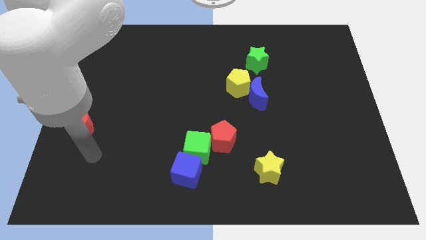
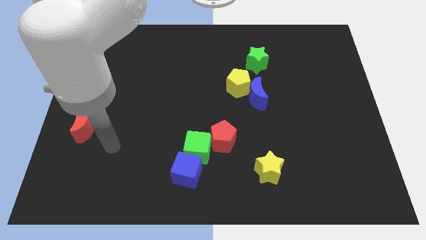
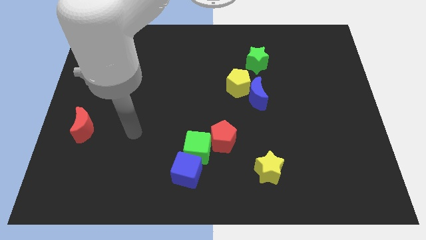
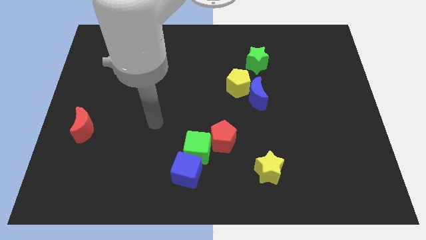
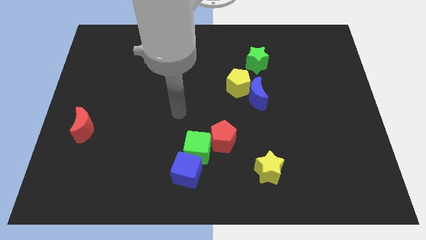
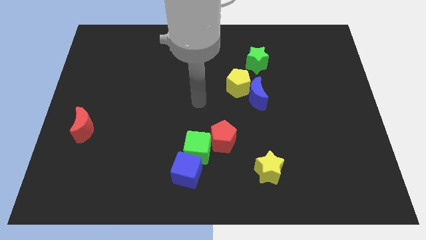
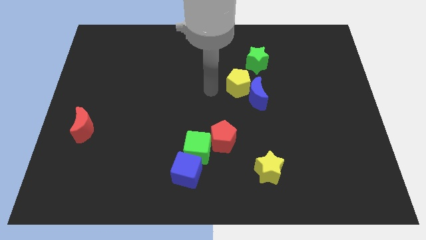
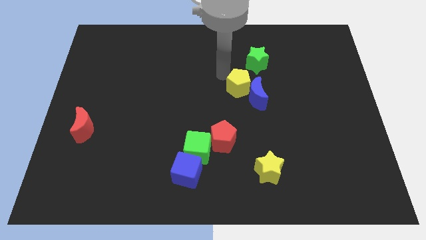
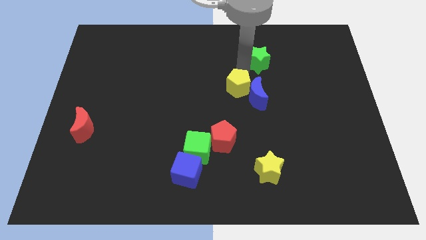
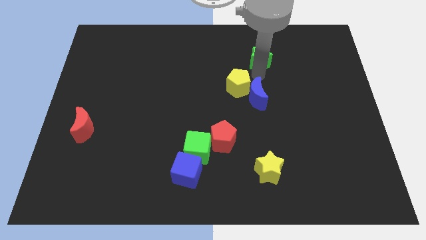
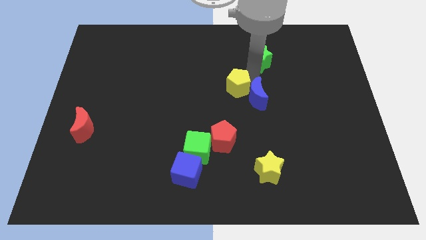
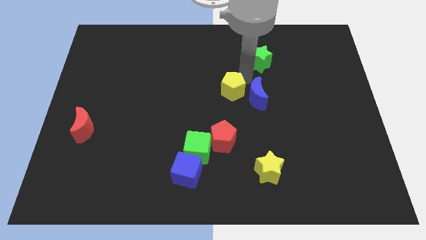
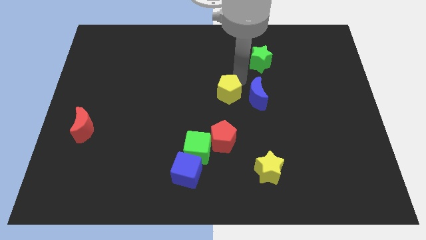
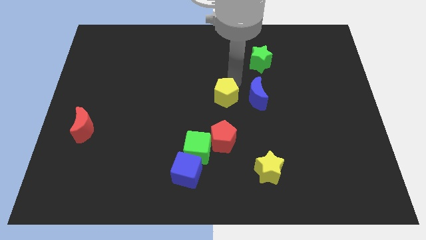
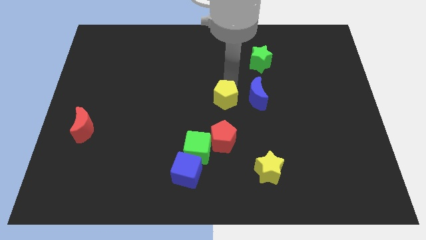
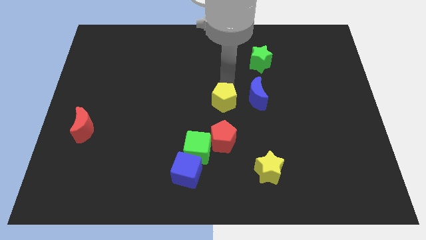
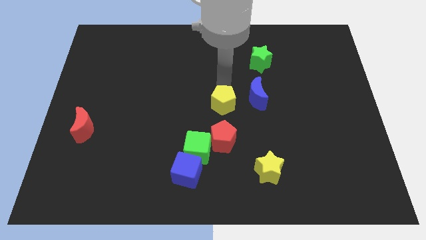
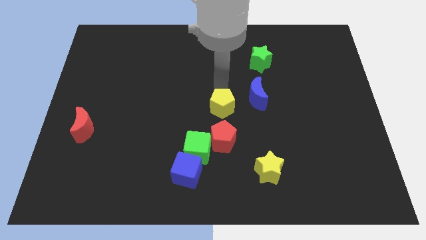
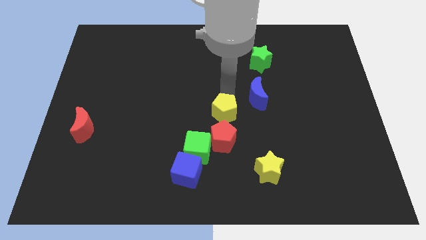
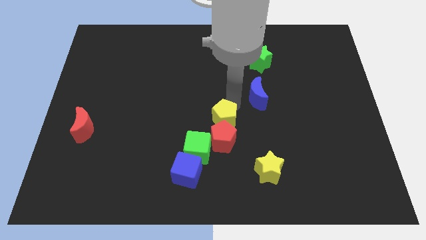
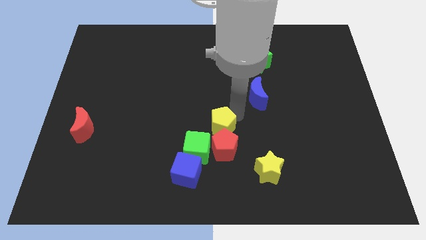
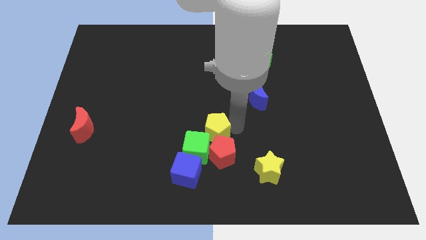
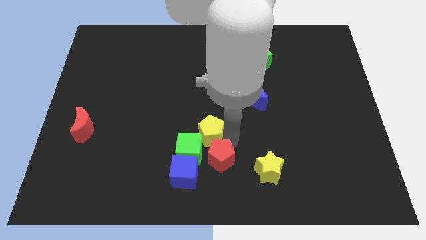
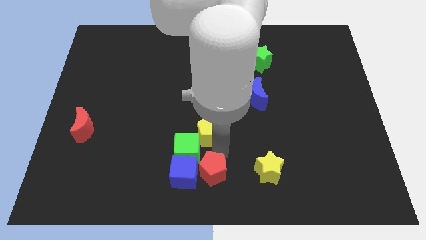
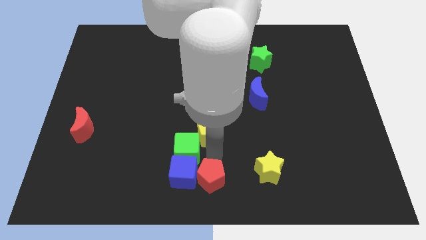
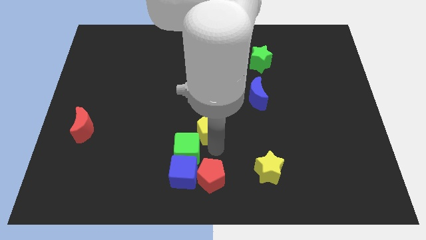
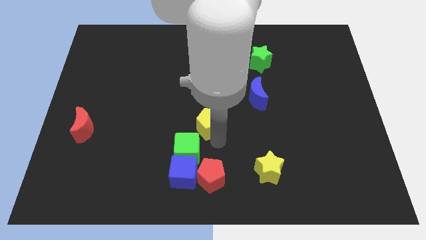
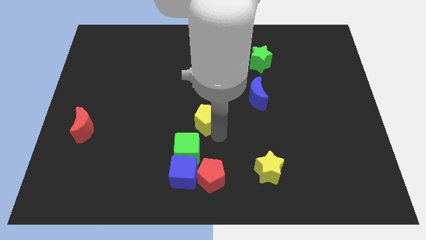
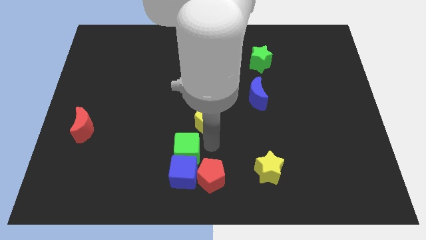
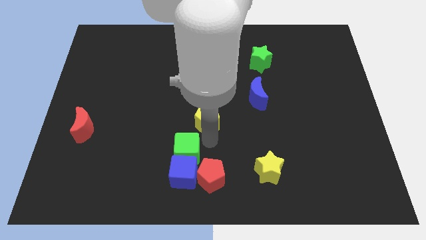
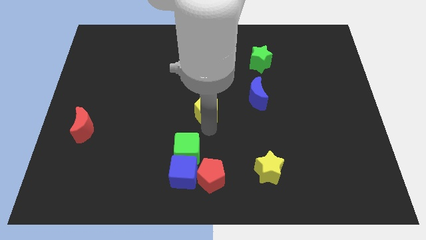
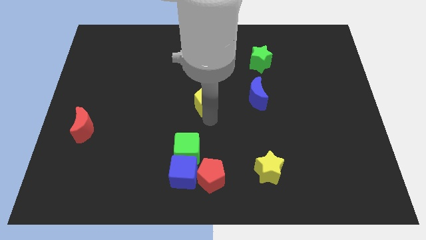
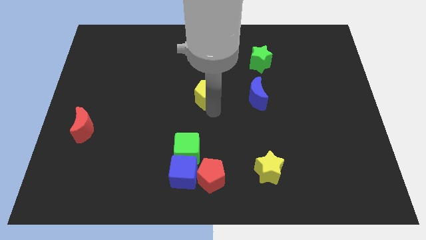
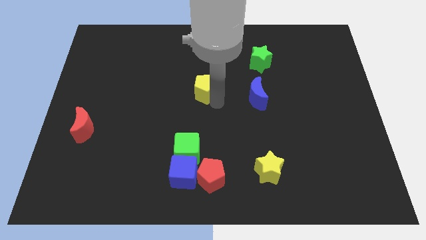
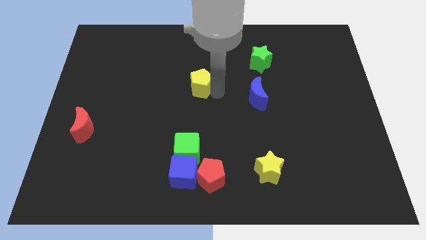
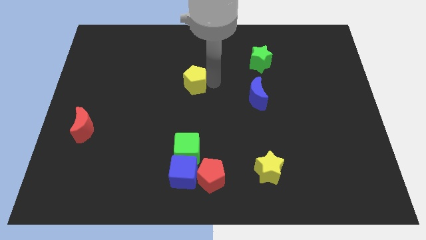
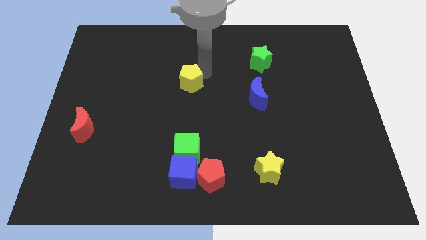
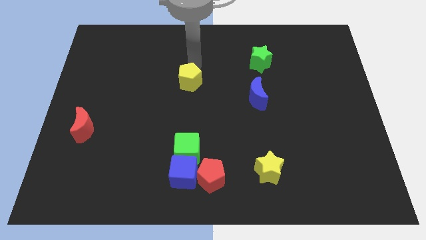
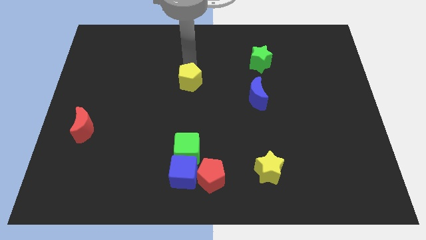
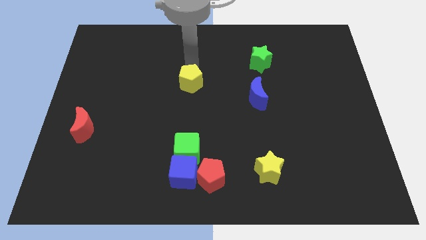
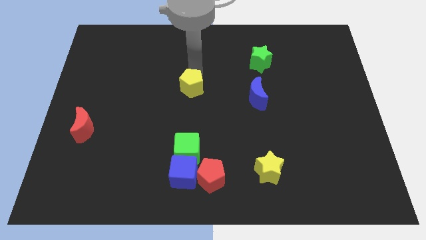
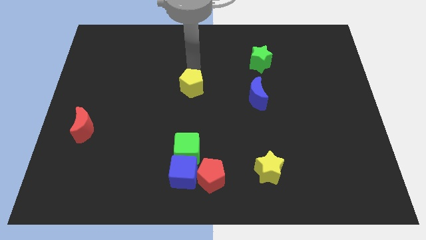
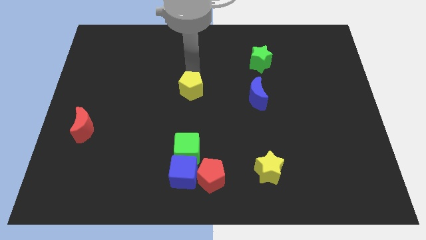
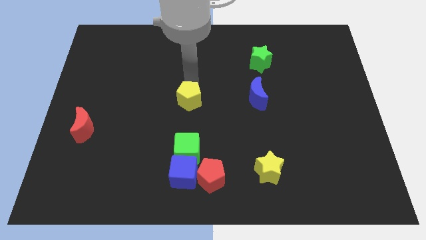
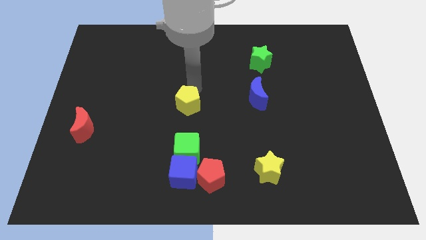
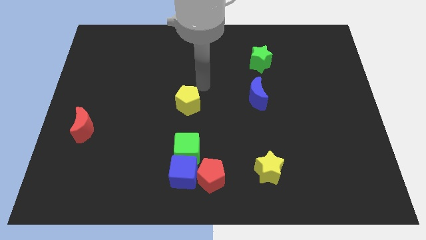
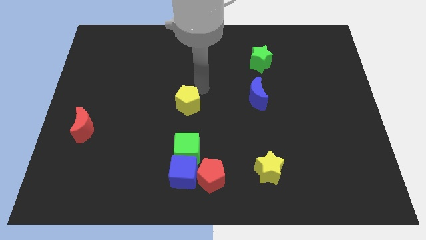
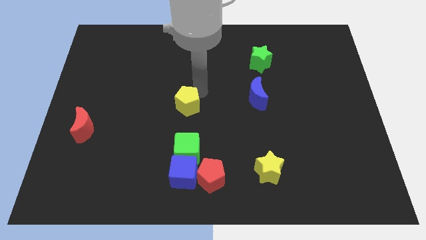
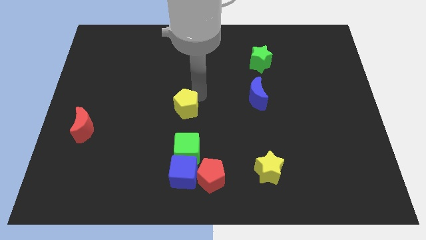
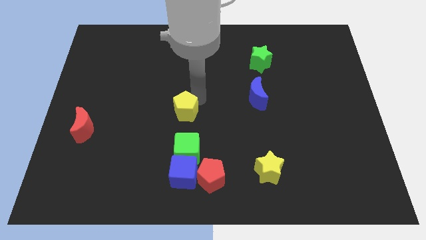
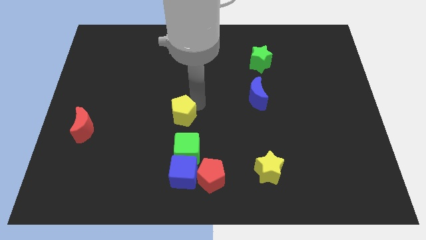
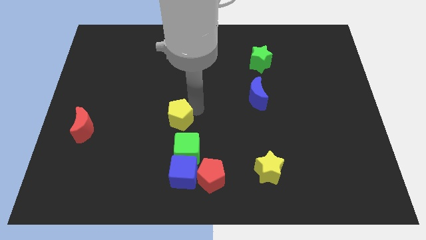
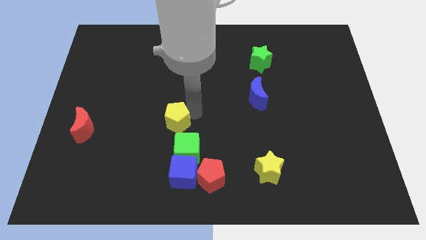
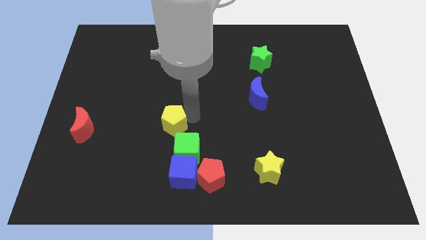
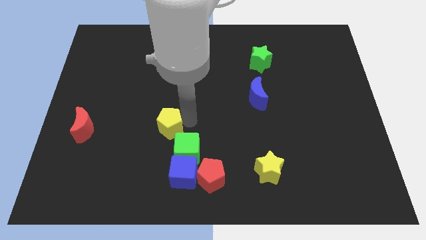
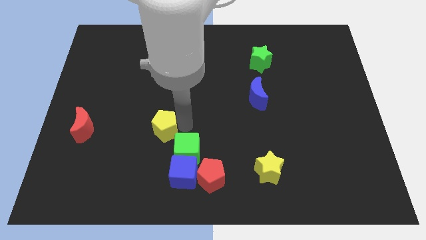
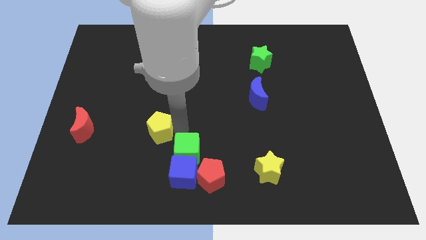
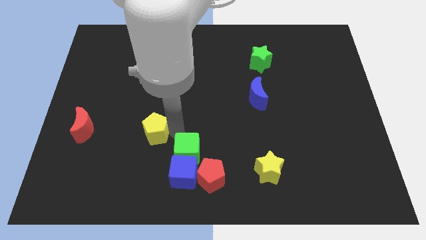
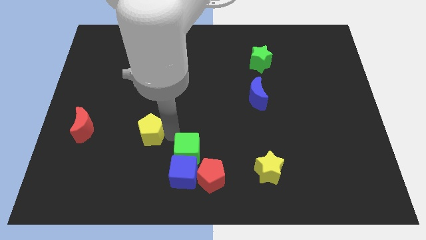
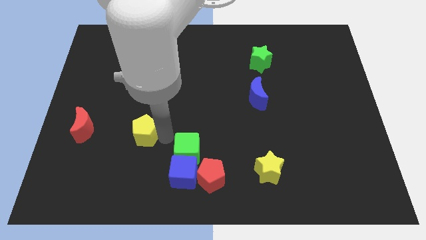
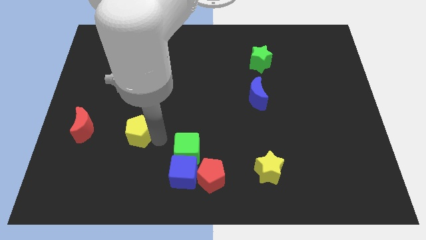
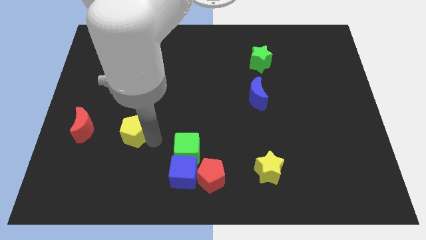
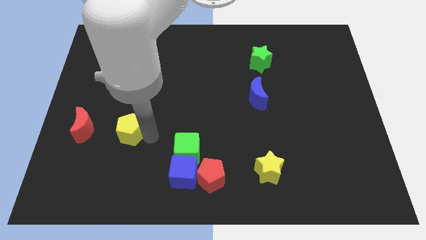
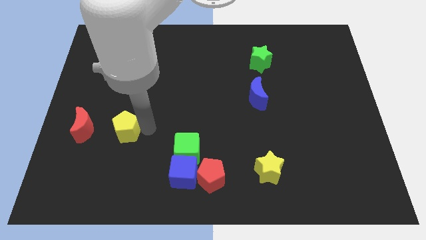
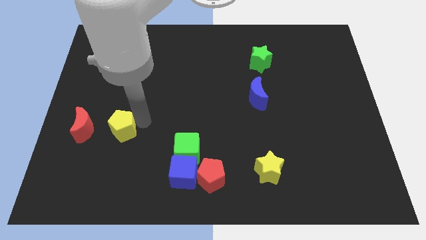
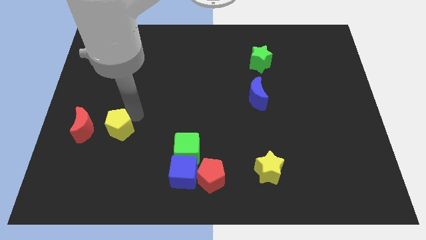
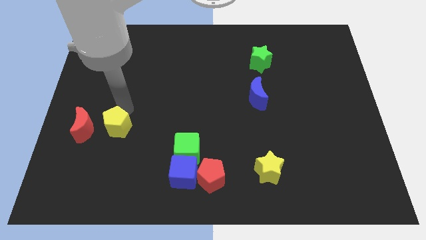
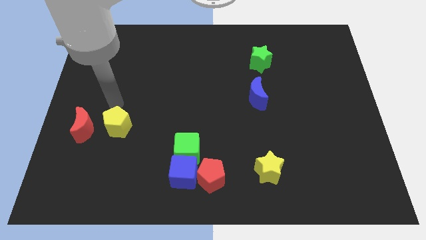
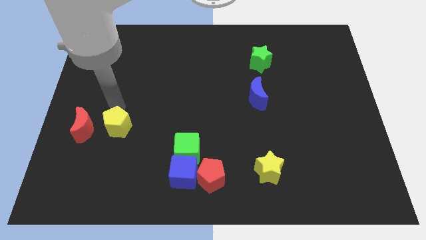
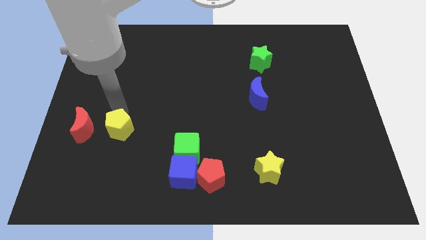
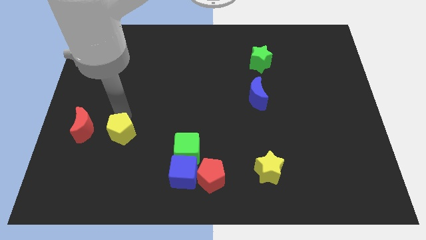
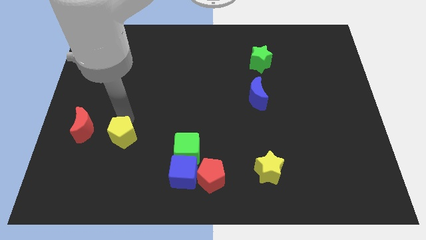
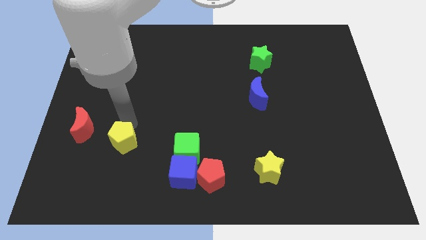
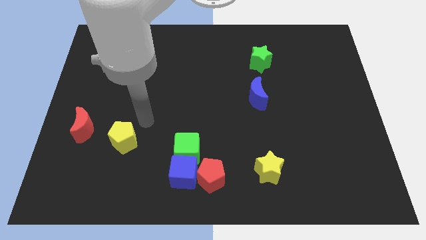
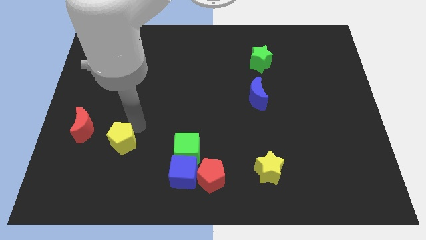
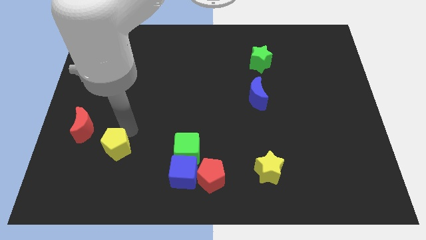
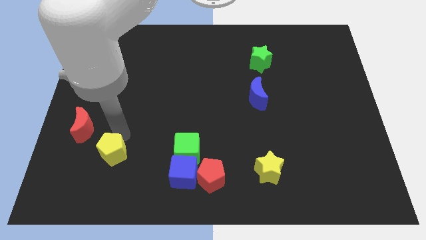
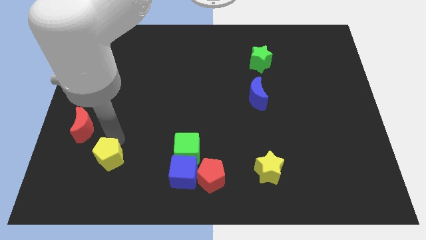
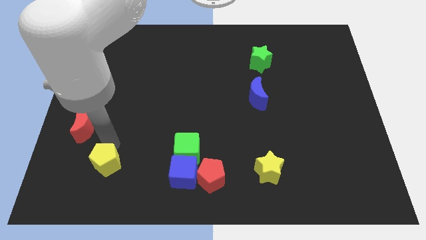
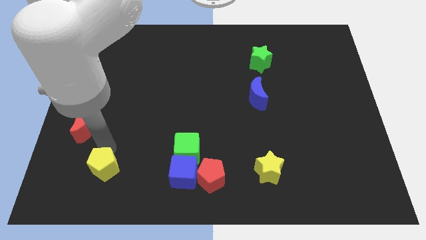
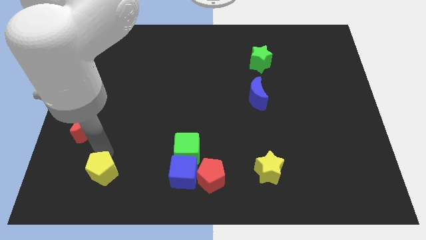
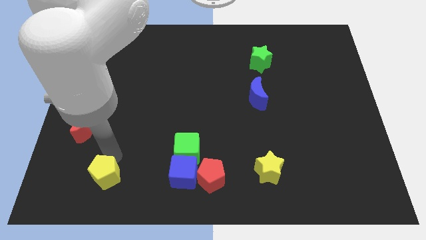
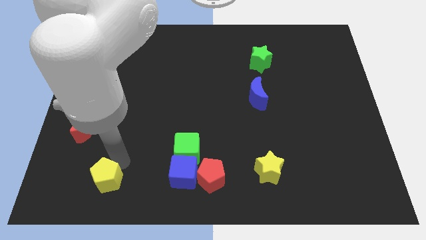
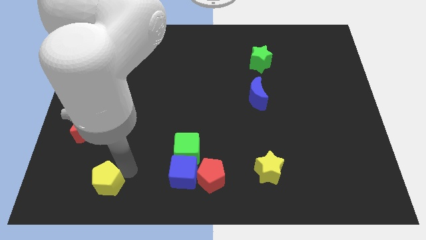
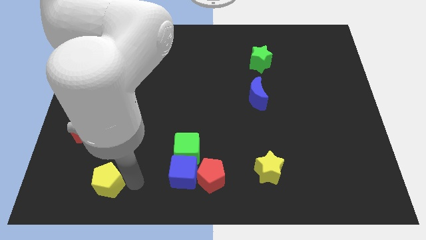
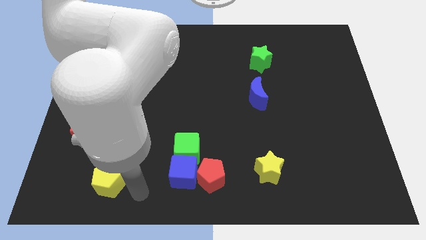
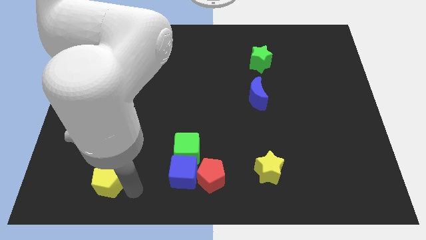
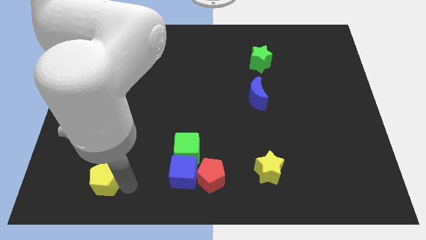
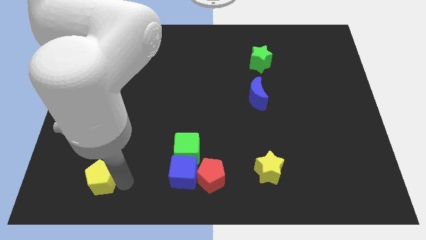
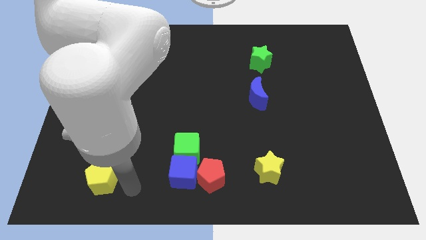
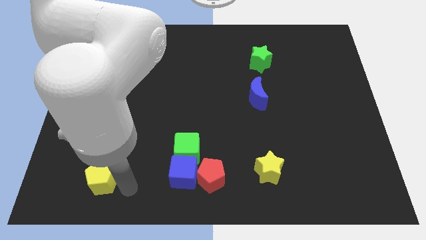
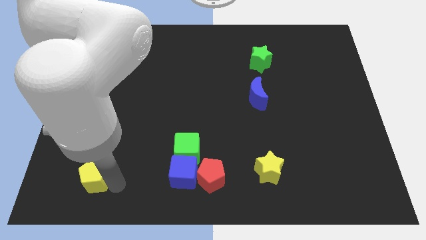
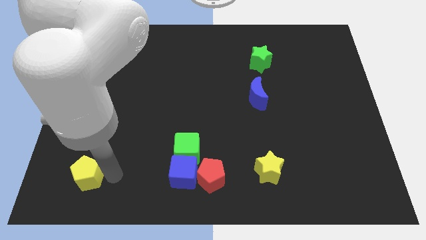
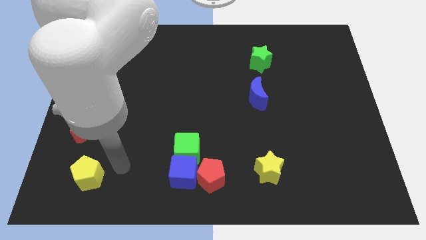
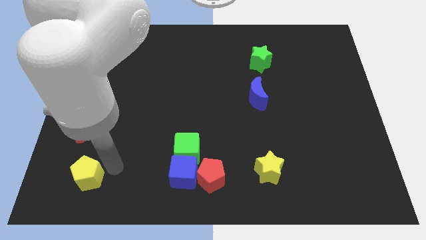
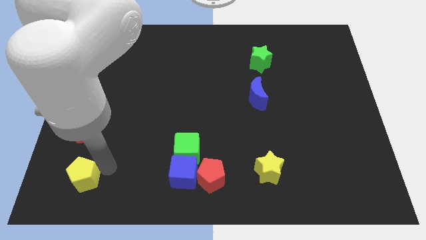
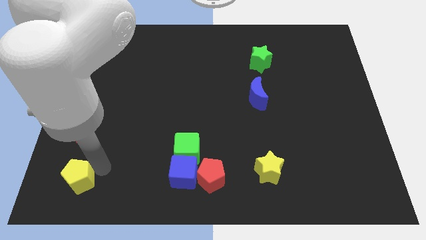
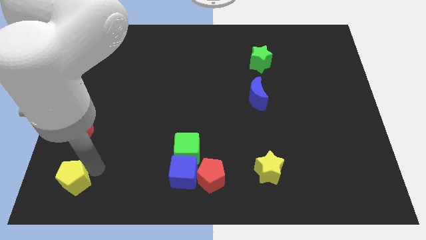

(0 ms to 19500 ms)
put the yellow pentagon to the lower left corner
